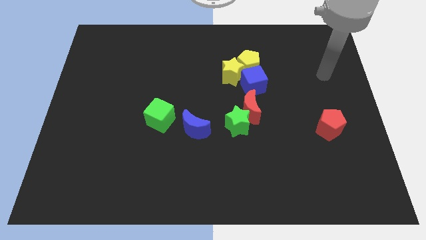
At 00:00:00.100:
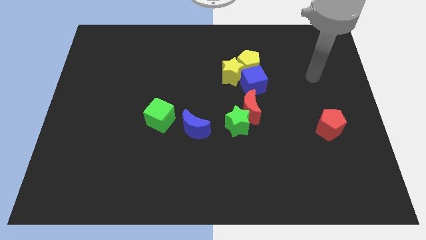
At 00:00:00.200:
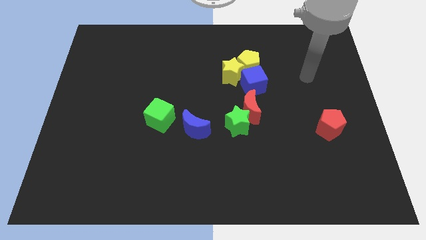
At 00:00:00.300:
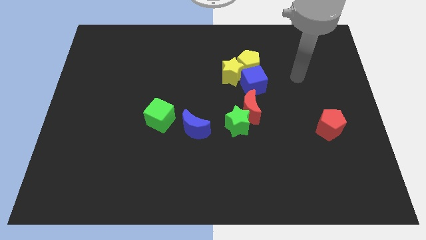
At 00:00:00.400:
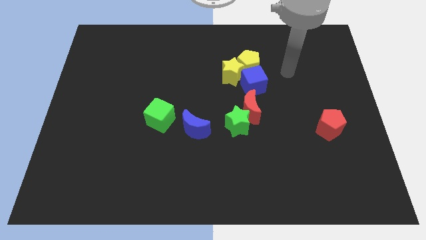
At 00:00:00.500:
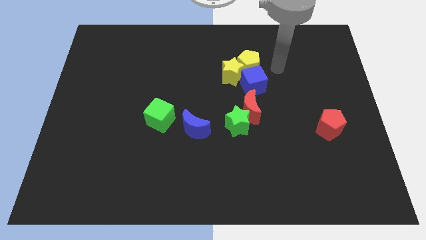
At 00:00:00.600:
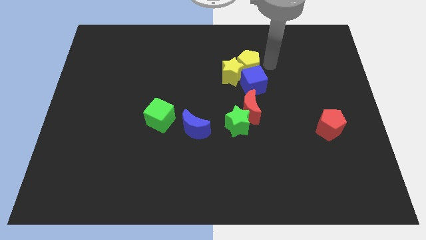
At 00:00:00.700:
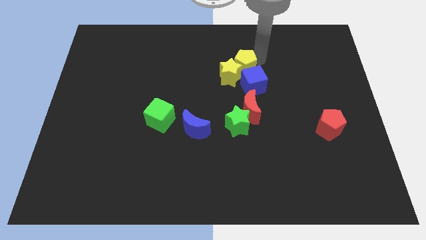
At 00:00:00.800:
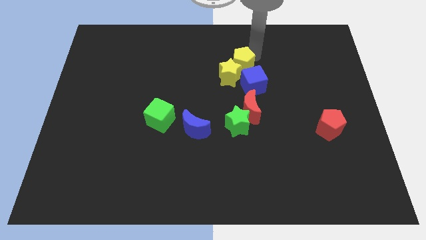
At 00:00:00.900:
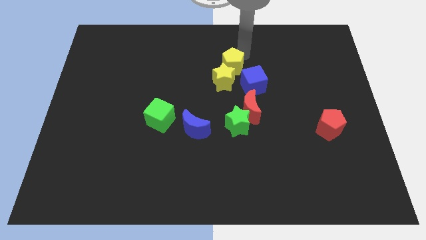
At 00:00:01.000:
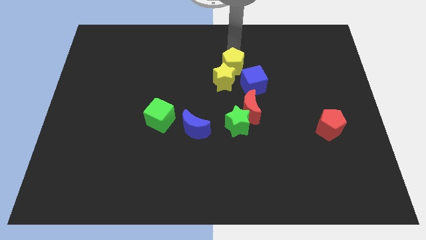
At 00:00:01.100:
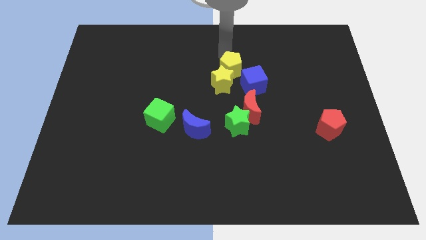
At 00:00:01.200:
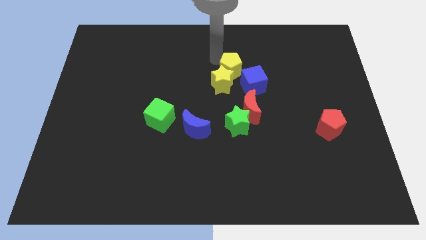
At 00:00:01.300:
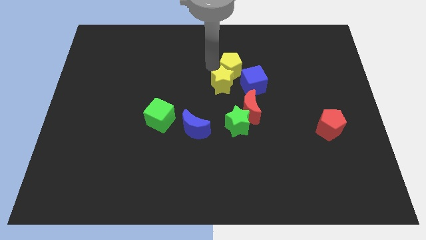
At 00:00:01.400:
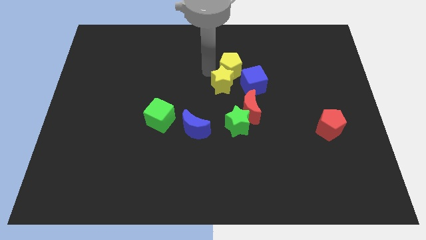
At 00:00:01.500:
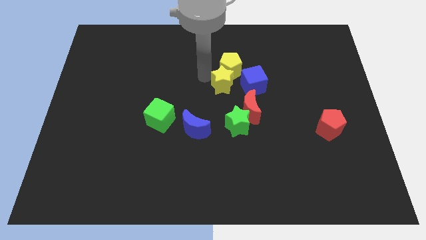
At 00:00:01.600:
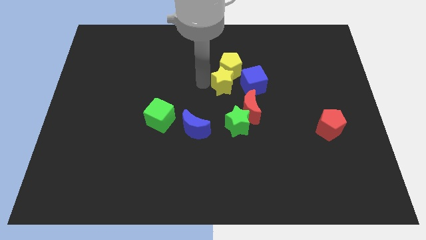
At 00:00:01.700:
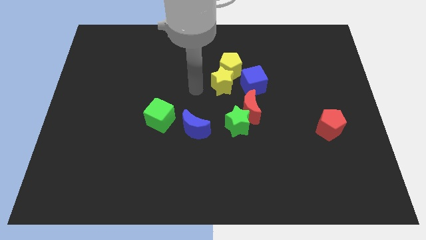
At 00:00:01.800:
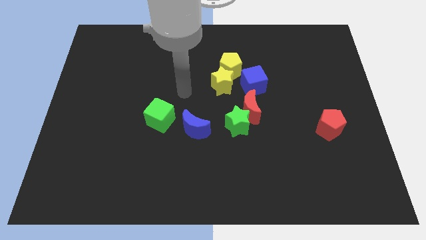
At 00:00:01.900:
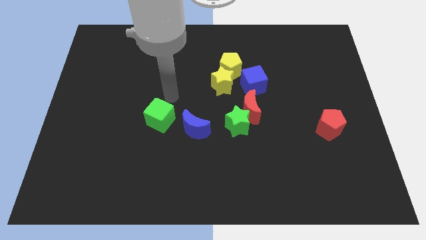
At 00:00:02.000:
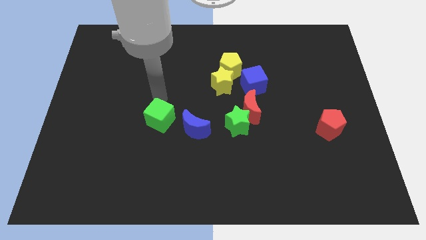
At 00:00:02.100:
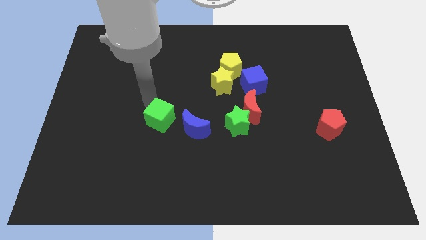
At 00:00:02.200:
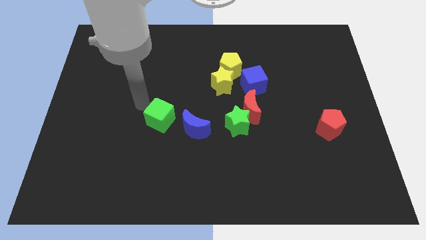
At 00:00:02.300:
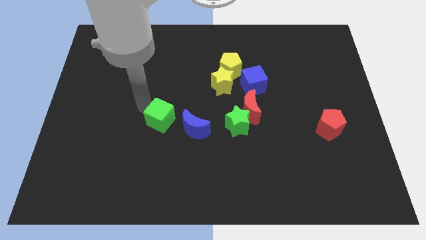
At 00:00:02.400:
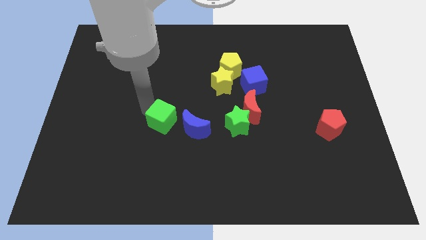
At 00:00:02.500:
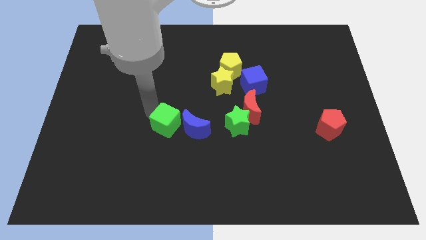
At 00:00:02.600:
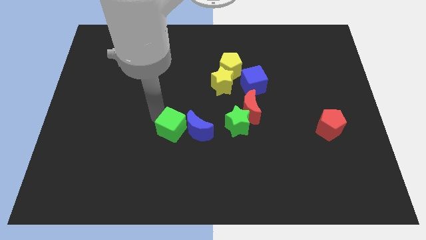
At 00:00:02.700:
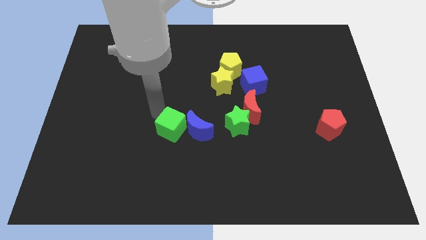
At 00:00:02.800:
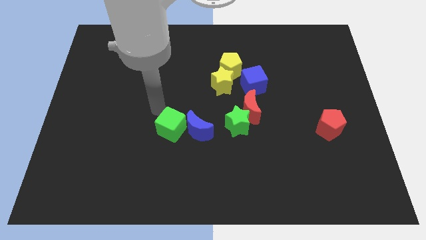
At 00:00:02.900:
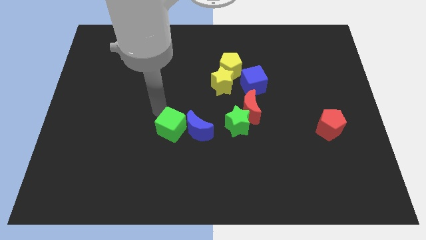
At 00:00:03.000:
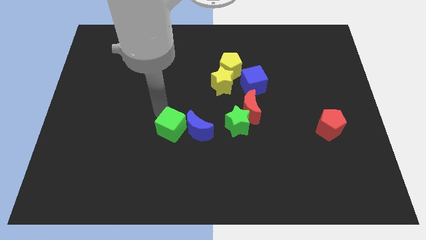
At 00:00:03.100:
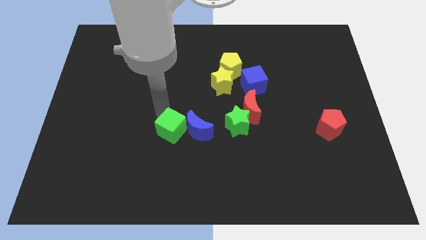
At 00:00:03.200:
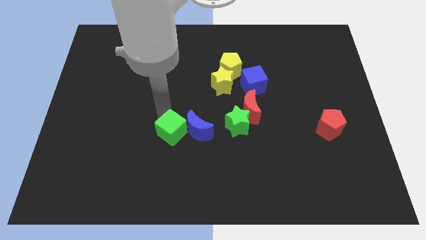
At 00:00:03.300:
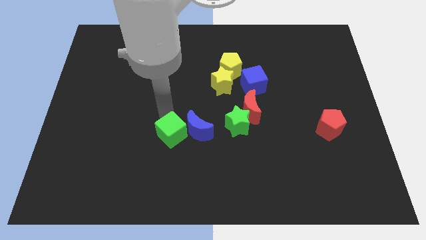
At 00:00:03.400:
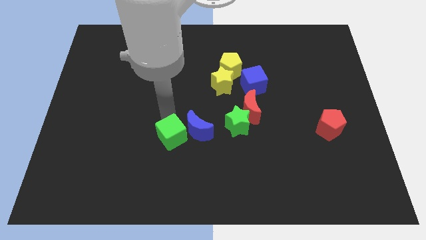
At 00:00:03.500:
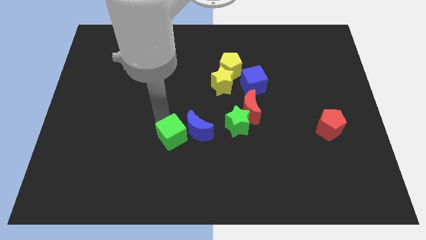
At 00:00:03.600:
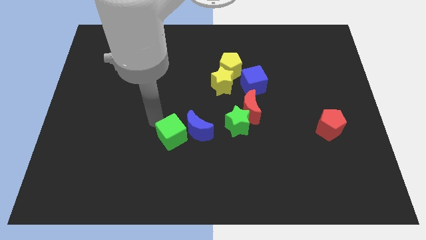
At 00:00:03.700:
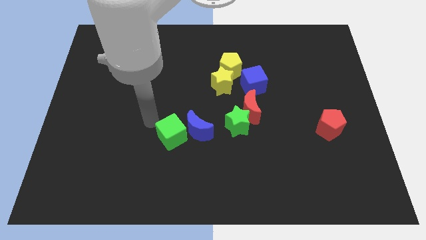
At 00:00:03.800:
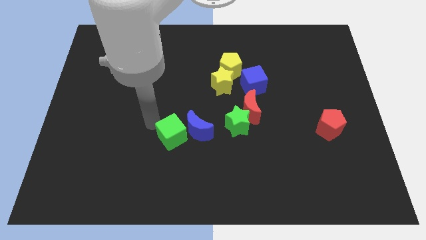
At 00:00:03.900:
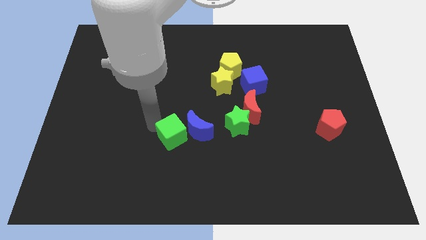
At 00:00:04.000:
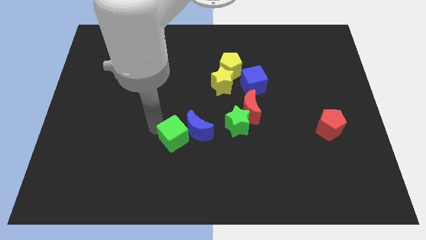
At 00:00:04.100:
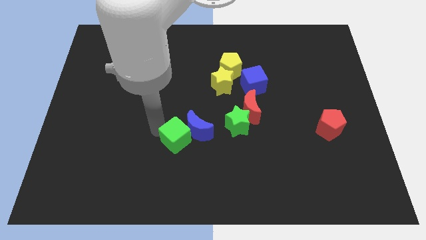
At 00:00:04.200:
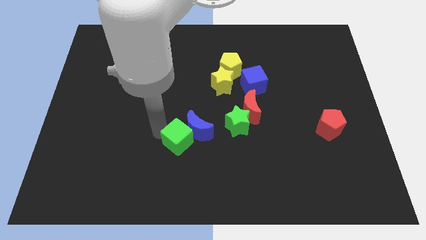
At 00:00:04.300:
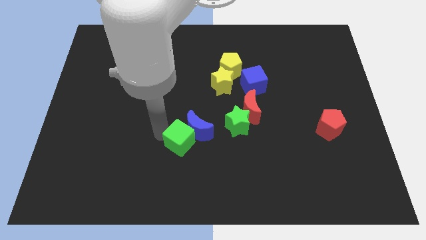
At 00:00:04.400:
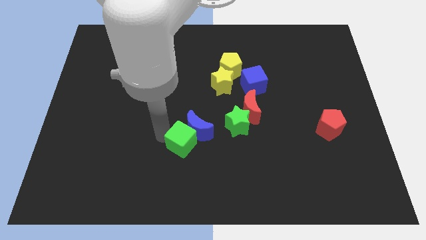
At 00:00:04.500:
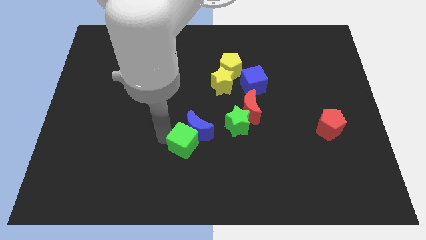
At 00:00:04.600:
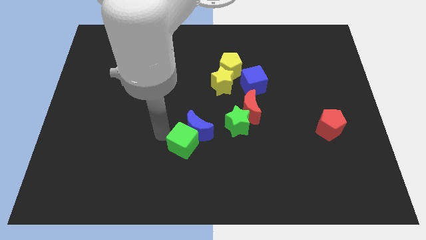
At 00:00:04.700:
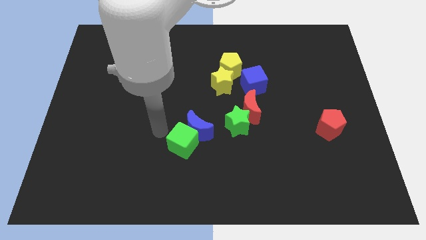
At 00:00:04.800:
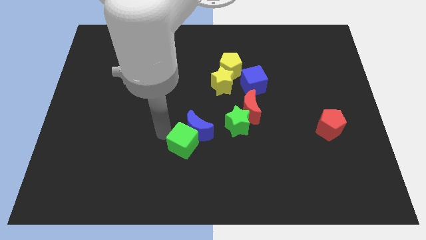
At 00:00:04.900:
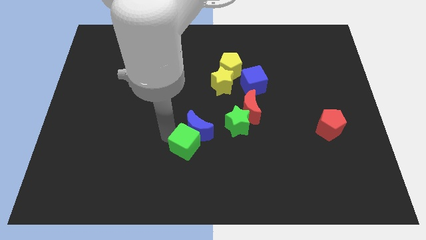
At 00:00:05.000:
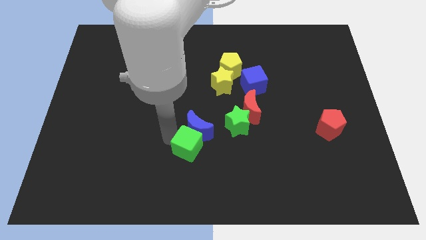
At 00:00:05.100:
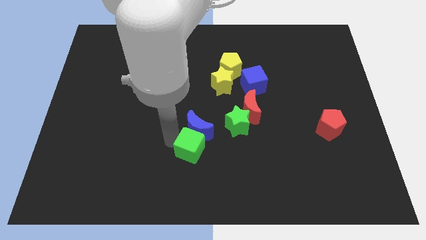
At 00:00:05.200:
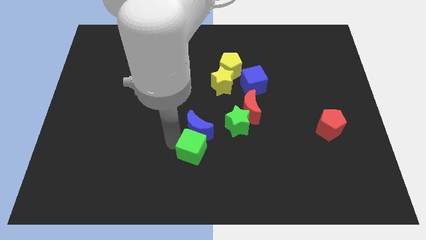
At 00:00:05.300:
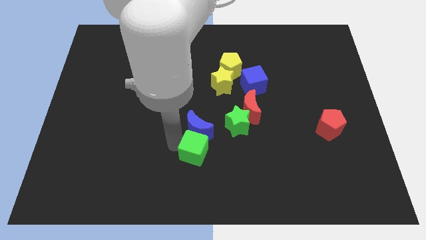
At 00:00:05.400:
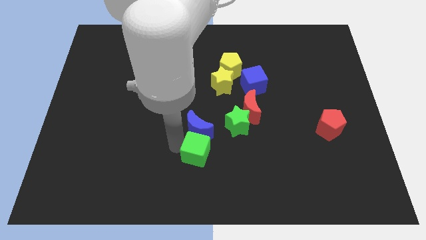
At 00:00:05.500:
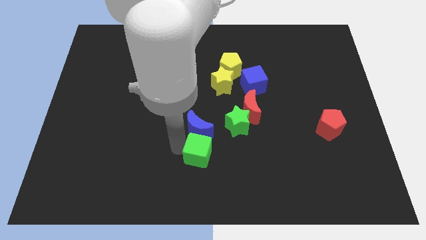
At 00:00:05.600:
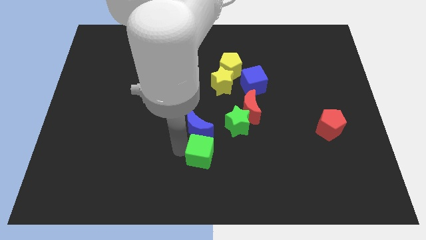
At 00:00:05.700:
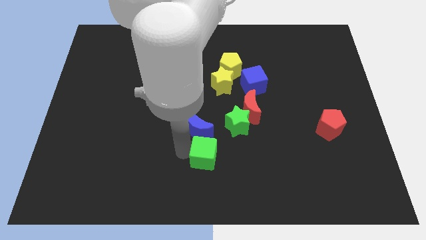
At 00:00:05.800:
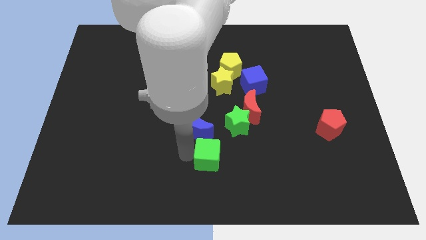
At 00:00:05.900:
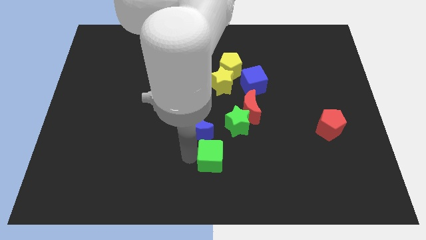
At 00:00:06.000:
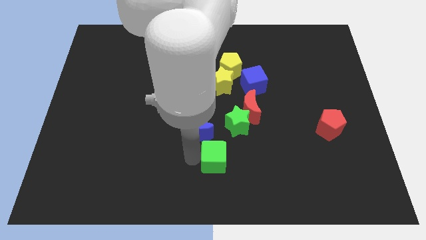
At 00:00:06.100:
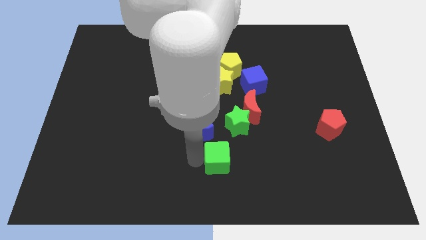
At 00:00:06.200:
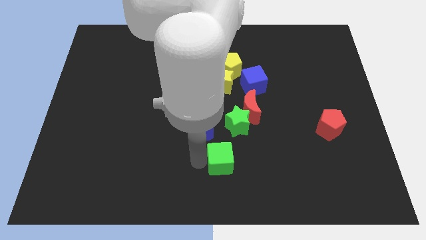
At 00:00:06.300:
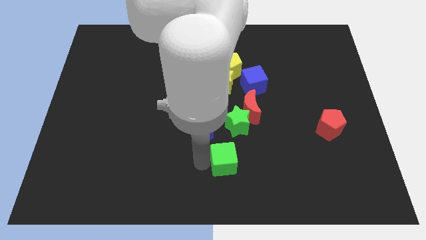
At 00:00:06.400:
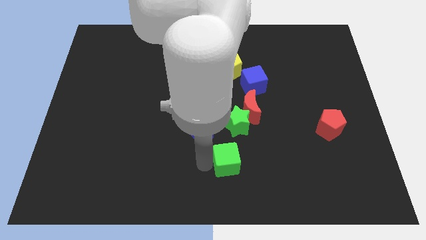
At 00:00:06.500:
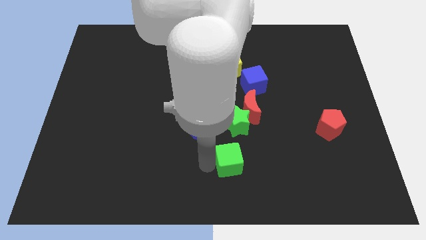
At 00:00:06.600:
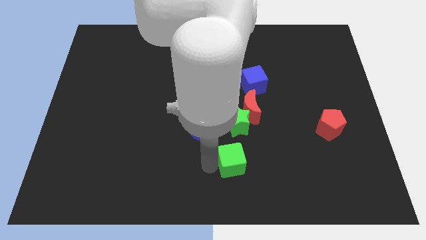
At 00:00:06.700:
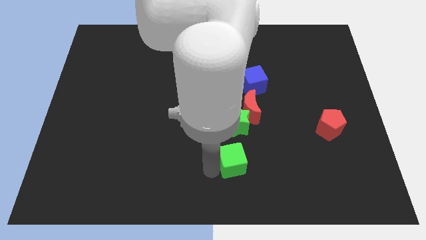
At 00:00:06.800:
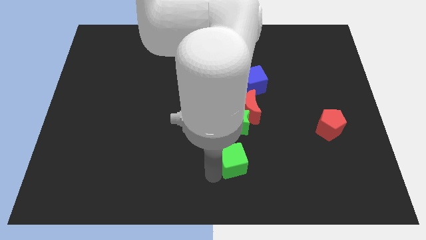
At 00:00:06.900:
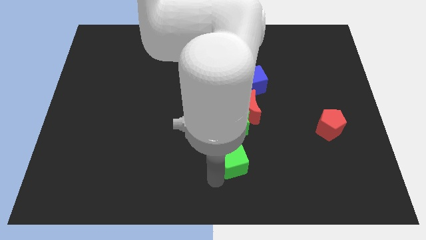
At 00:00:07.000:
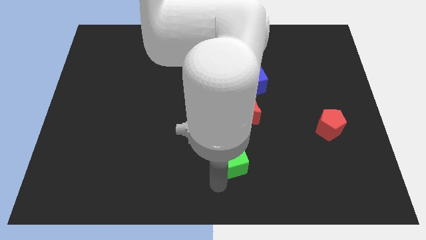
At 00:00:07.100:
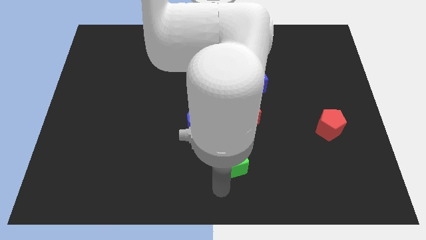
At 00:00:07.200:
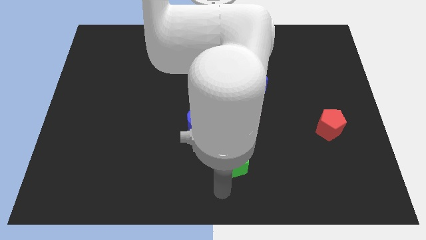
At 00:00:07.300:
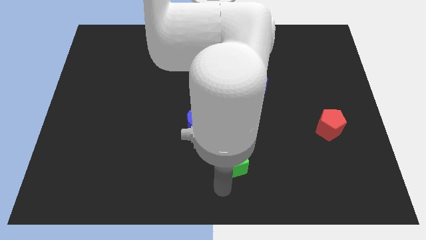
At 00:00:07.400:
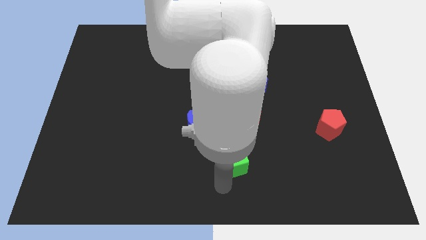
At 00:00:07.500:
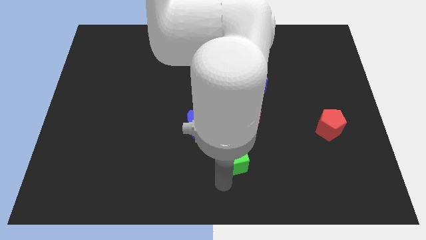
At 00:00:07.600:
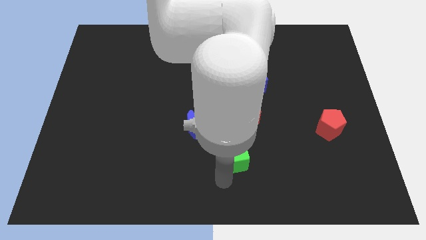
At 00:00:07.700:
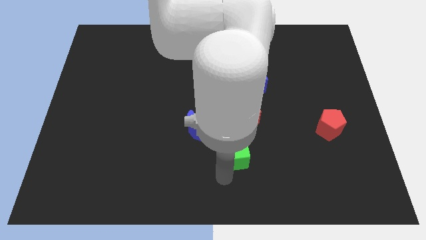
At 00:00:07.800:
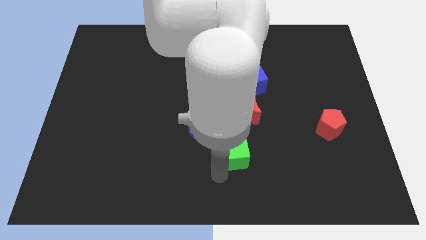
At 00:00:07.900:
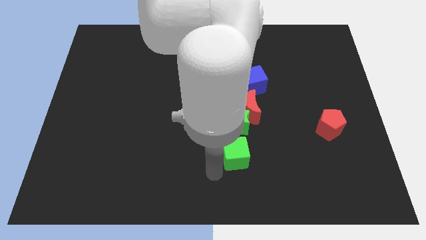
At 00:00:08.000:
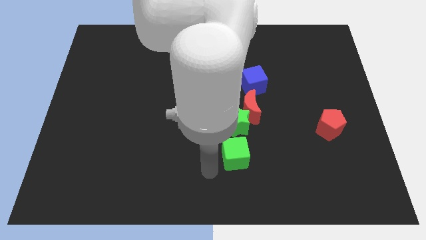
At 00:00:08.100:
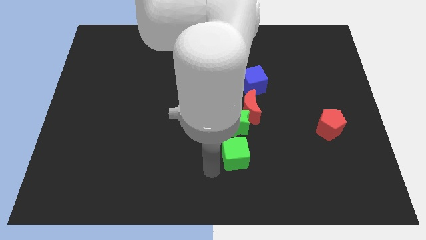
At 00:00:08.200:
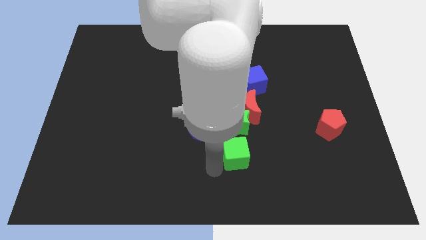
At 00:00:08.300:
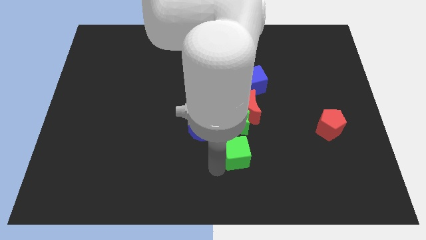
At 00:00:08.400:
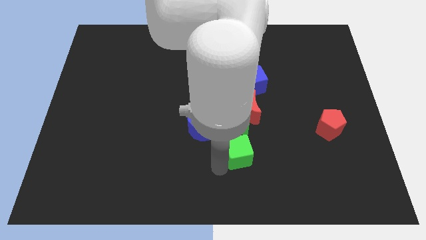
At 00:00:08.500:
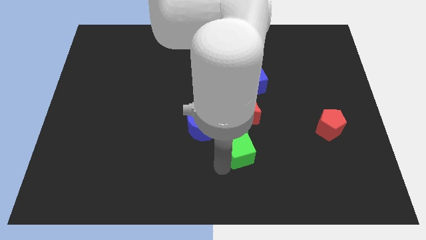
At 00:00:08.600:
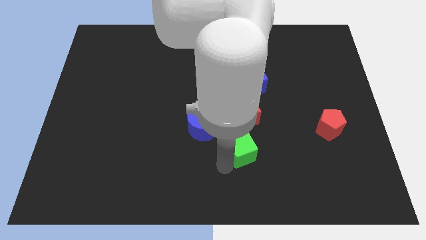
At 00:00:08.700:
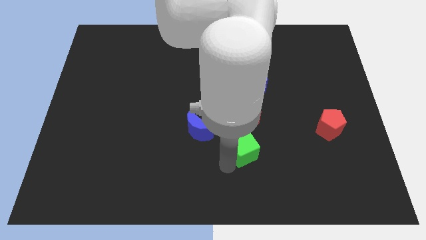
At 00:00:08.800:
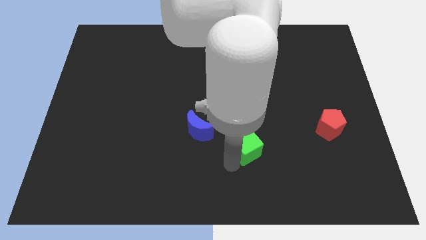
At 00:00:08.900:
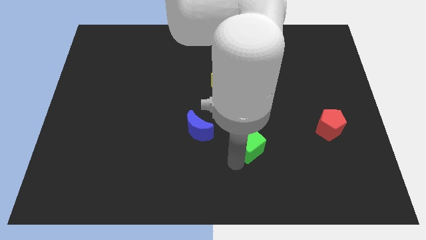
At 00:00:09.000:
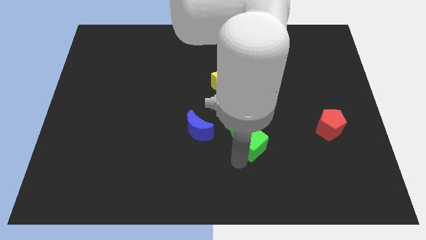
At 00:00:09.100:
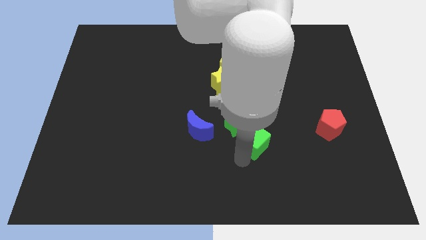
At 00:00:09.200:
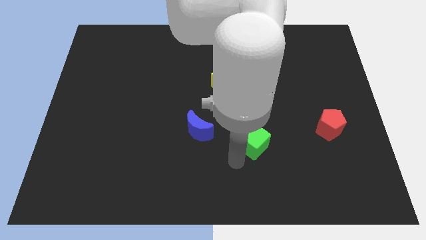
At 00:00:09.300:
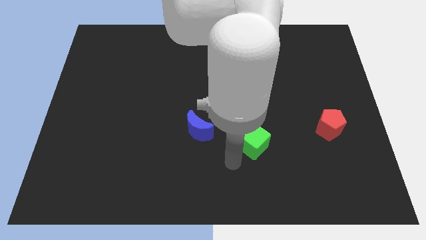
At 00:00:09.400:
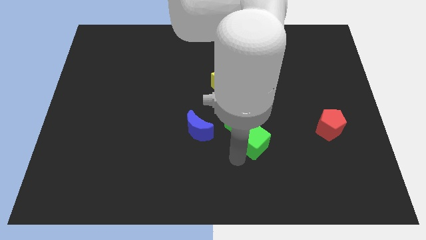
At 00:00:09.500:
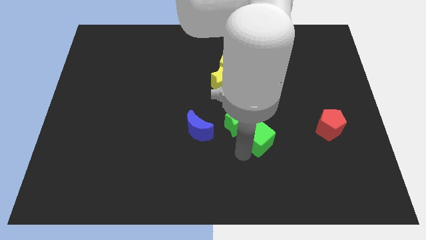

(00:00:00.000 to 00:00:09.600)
move the green cube right
